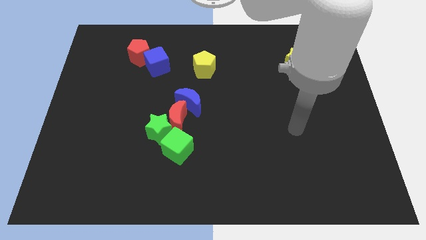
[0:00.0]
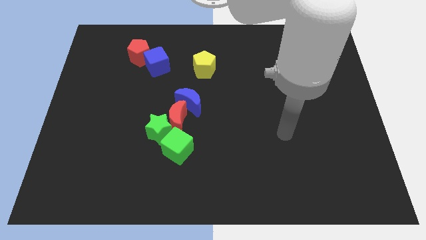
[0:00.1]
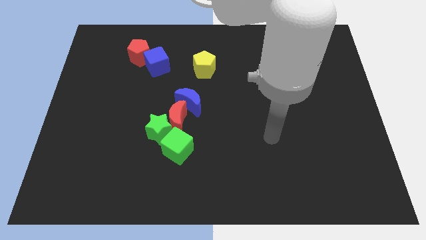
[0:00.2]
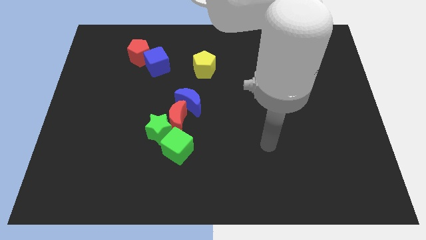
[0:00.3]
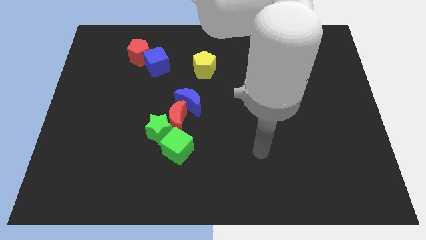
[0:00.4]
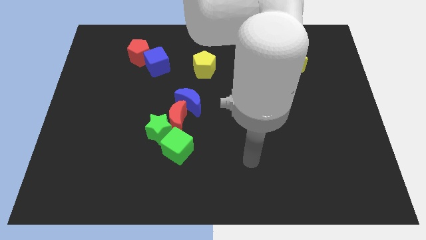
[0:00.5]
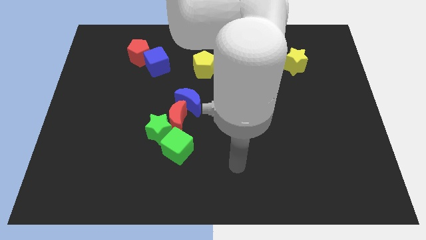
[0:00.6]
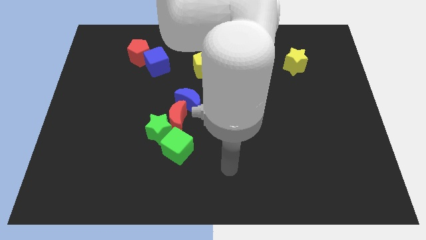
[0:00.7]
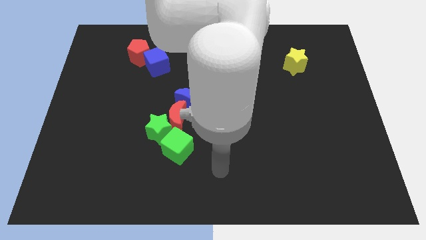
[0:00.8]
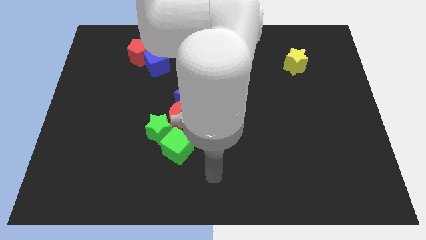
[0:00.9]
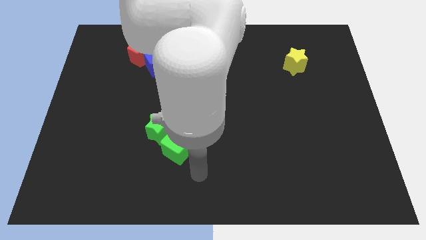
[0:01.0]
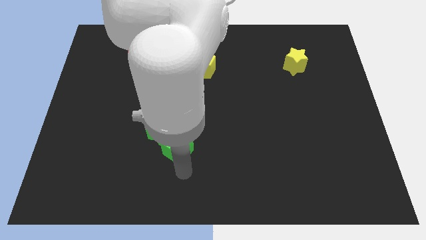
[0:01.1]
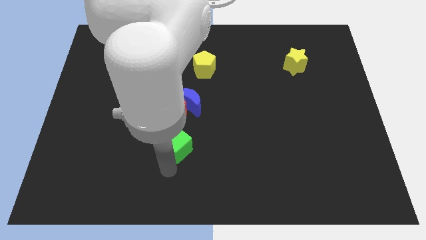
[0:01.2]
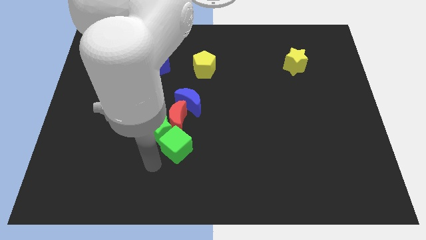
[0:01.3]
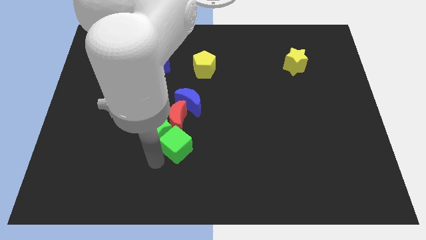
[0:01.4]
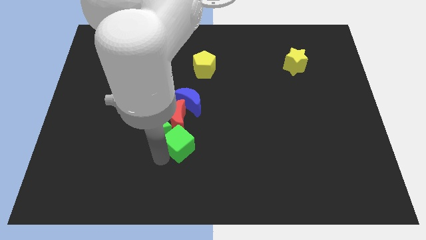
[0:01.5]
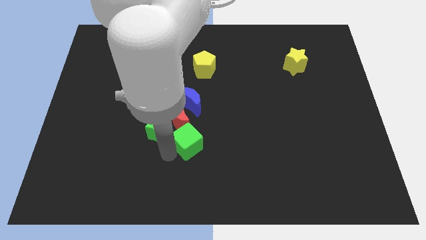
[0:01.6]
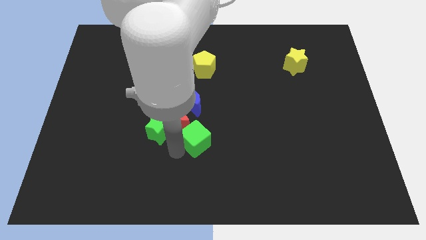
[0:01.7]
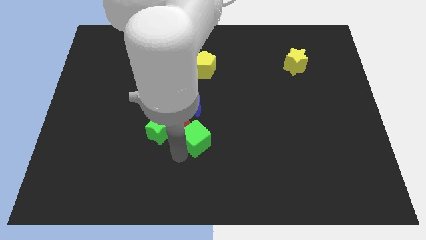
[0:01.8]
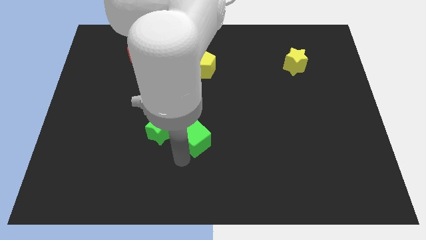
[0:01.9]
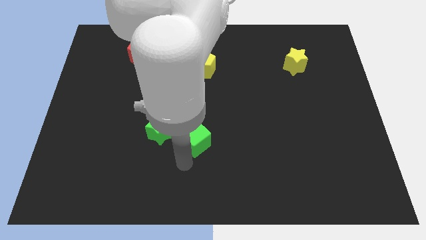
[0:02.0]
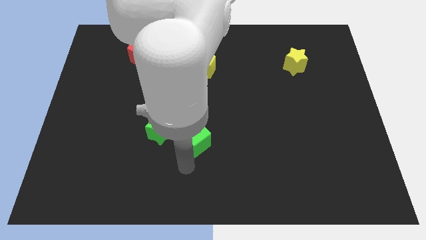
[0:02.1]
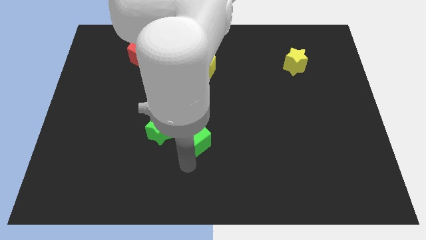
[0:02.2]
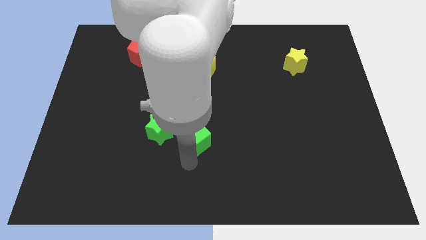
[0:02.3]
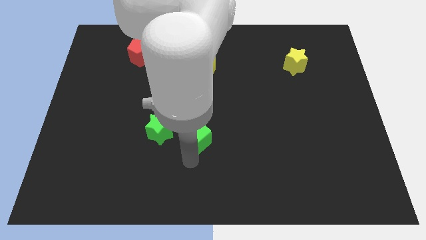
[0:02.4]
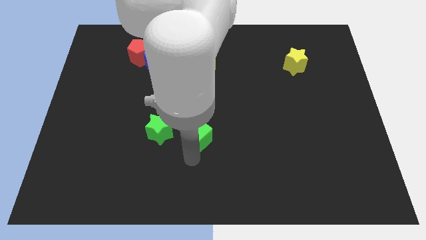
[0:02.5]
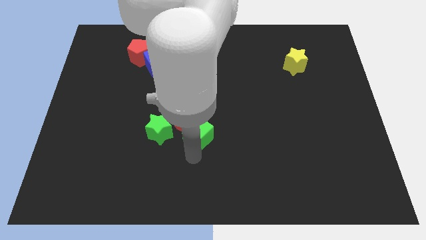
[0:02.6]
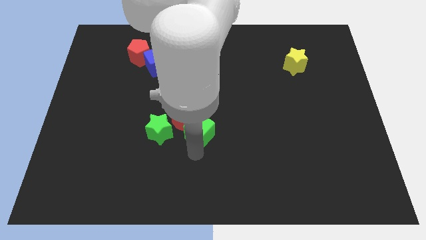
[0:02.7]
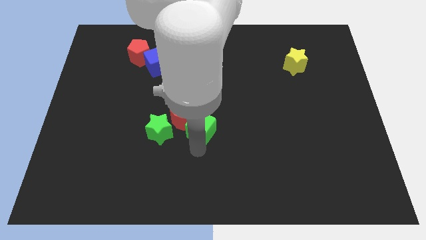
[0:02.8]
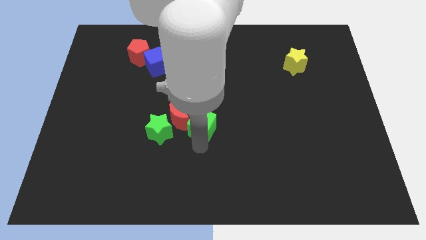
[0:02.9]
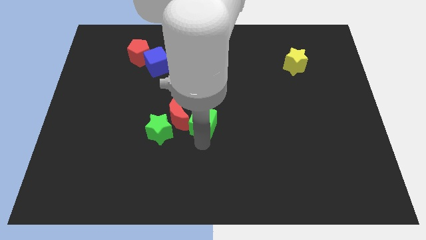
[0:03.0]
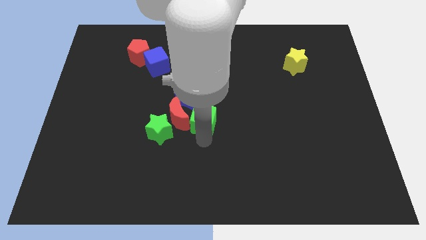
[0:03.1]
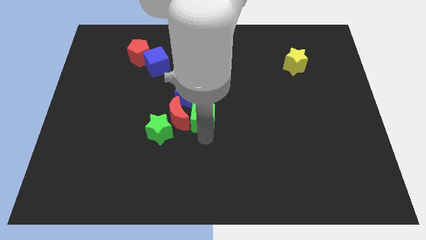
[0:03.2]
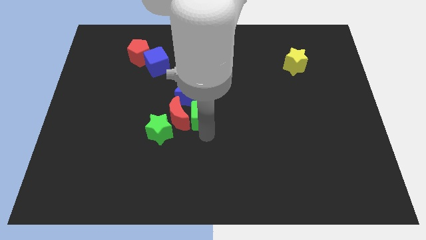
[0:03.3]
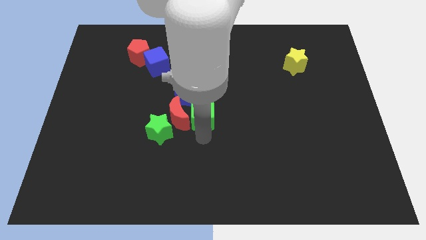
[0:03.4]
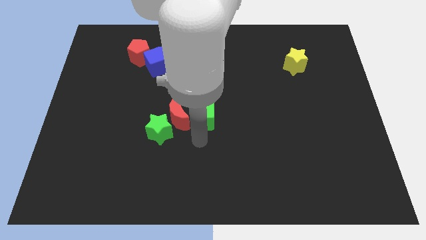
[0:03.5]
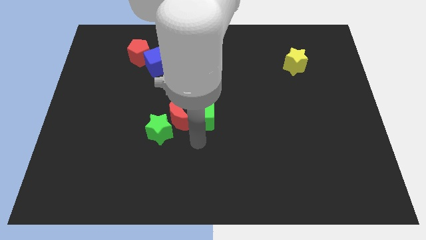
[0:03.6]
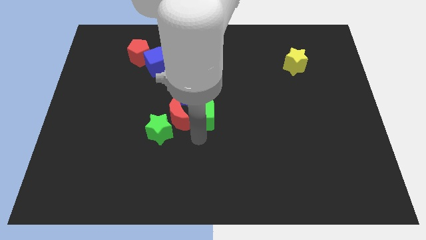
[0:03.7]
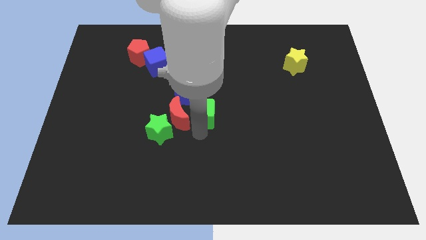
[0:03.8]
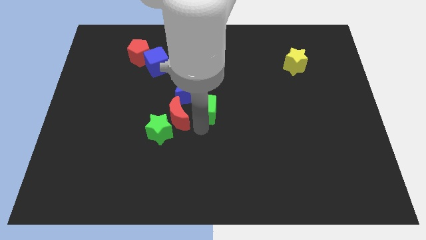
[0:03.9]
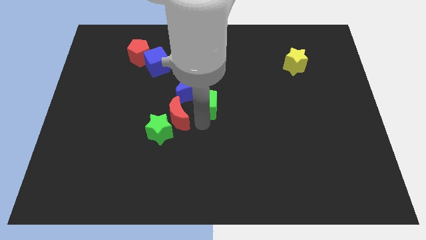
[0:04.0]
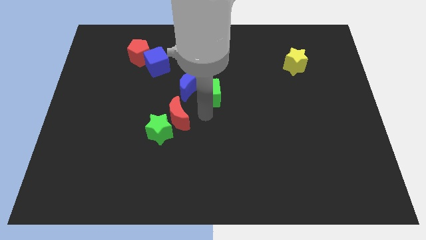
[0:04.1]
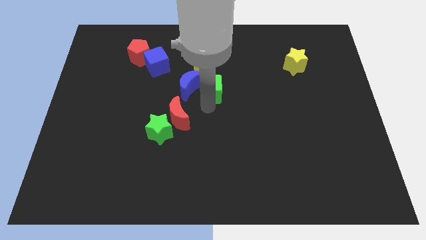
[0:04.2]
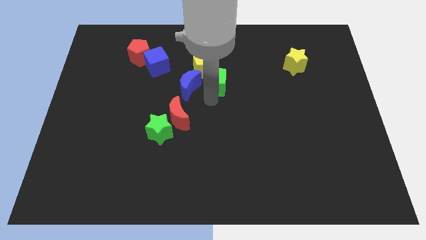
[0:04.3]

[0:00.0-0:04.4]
push the green cube close to the yellow pentagon

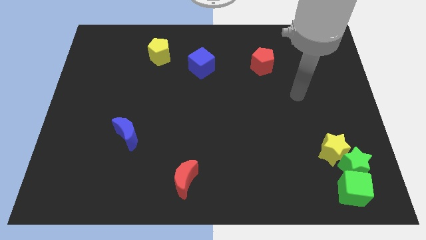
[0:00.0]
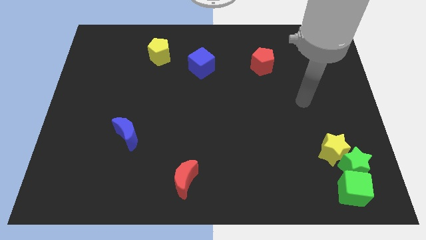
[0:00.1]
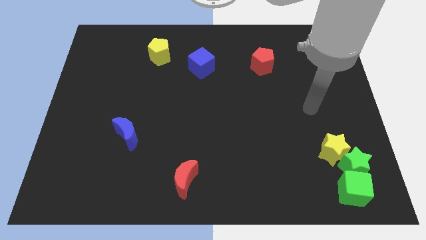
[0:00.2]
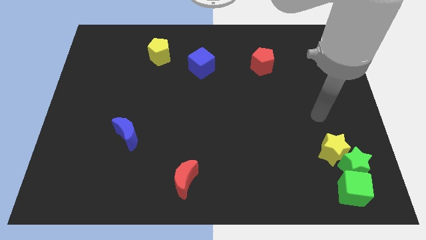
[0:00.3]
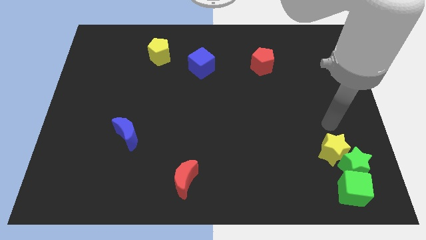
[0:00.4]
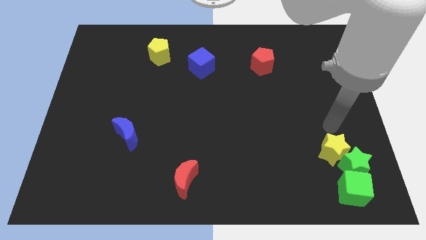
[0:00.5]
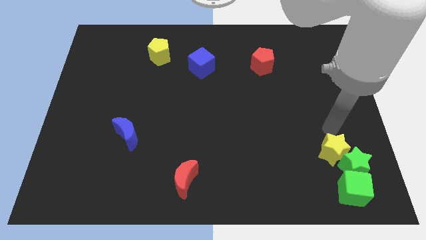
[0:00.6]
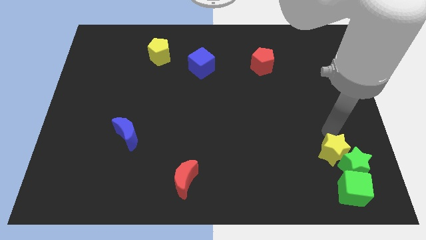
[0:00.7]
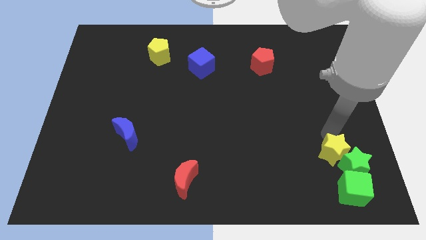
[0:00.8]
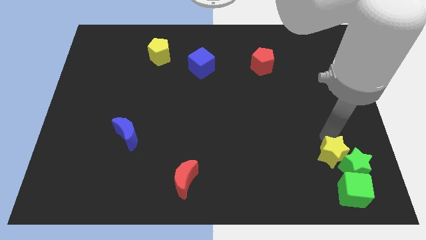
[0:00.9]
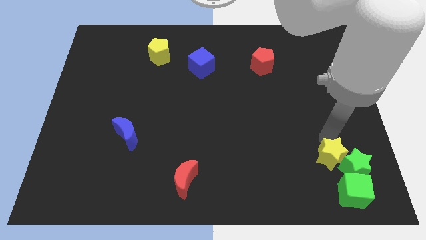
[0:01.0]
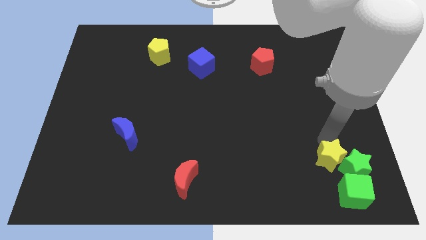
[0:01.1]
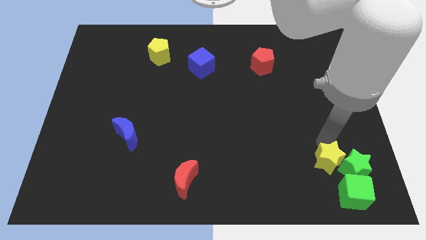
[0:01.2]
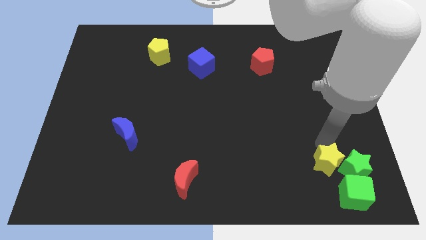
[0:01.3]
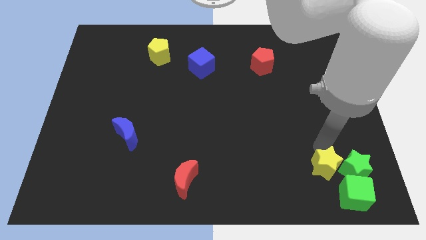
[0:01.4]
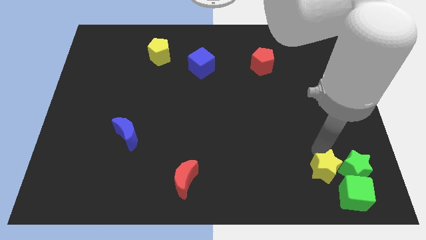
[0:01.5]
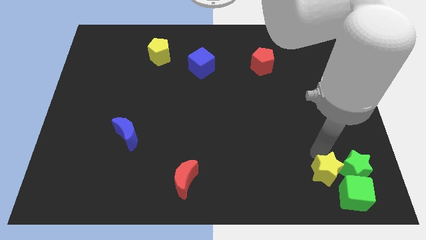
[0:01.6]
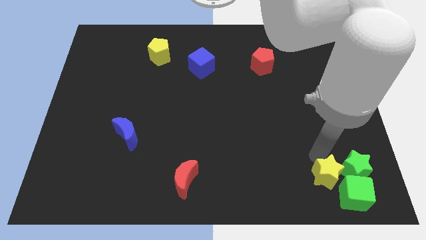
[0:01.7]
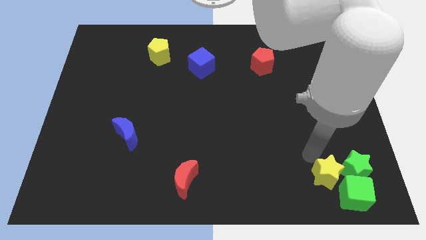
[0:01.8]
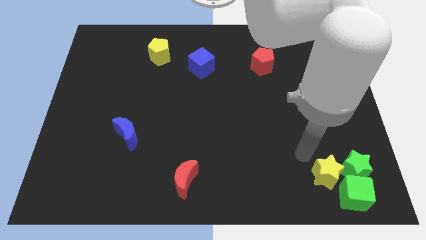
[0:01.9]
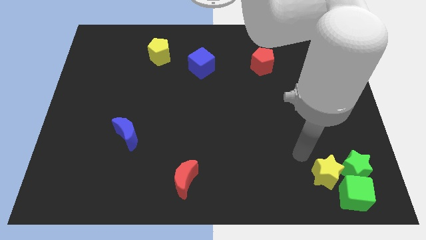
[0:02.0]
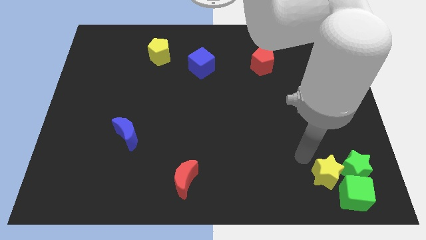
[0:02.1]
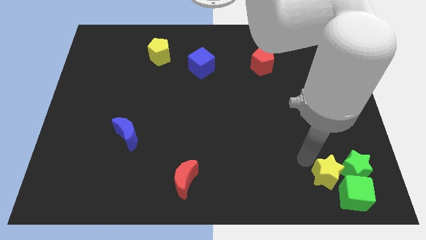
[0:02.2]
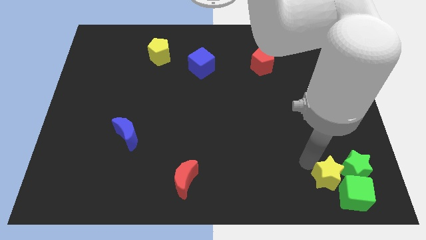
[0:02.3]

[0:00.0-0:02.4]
put the yellow star towards the green cube

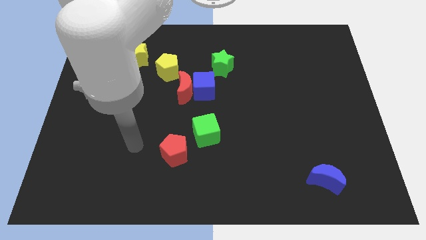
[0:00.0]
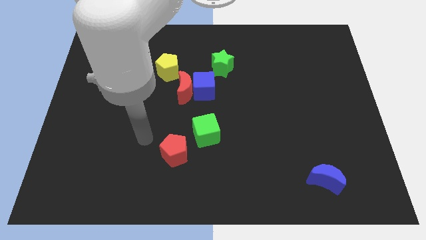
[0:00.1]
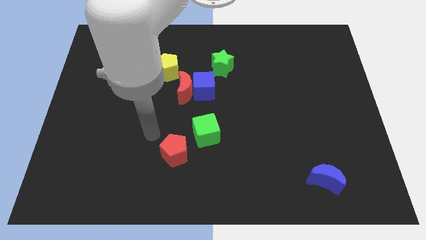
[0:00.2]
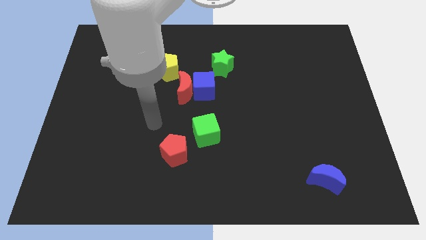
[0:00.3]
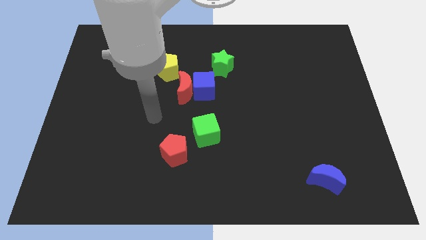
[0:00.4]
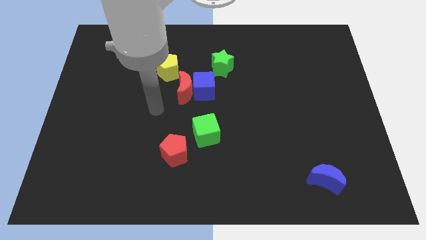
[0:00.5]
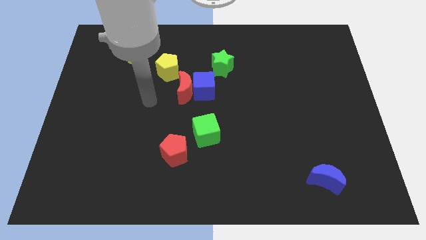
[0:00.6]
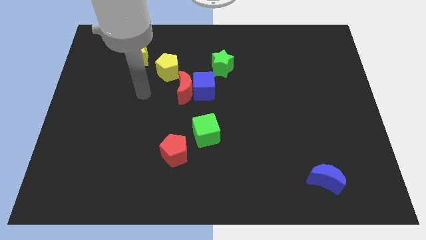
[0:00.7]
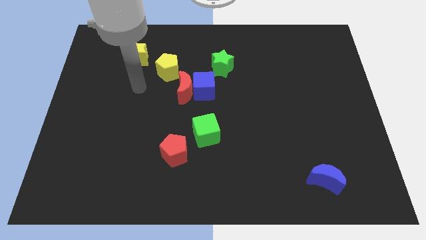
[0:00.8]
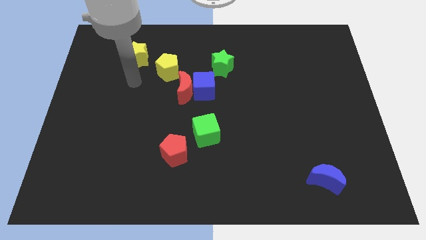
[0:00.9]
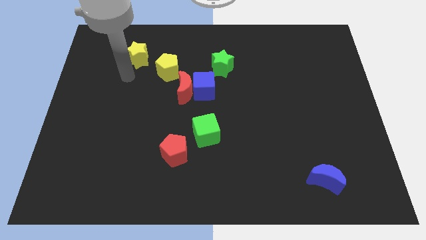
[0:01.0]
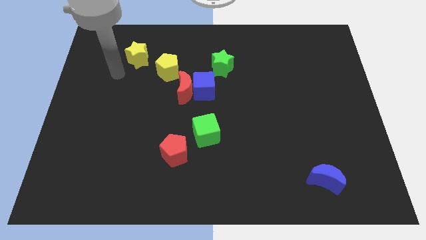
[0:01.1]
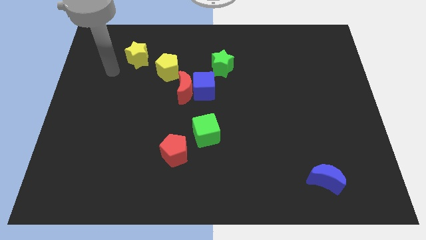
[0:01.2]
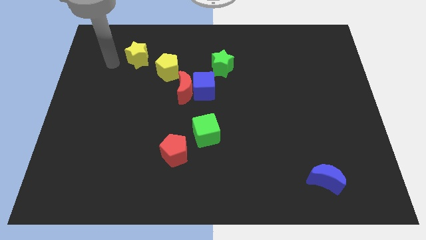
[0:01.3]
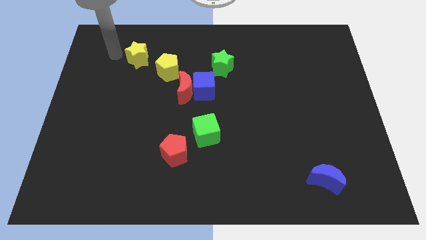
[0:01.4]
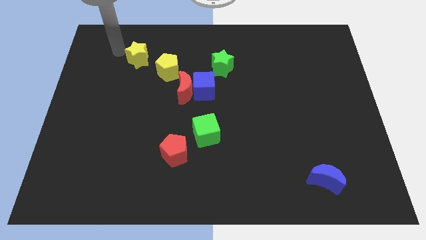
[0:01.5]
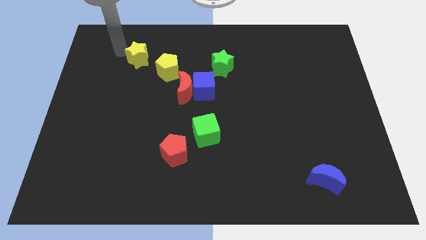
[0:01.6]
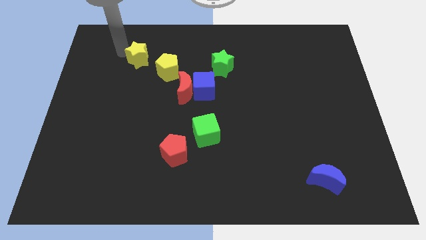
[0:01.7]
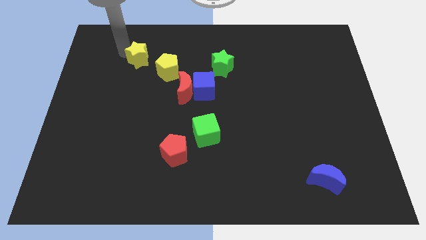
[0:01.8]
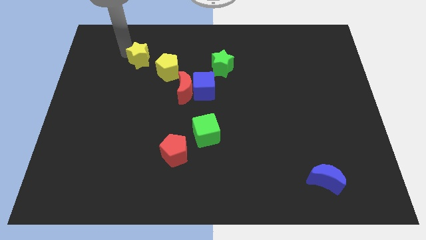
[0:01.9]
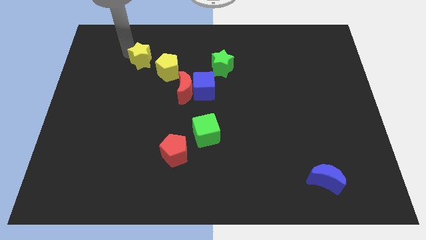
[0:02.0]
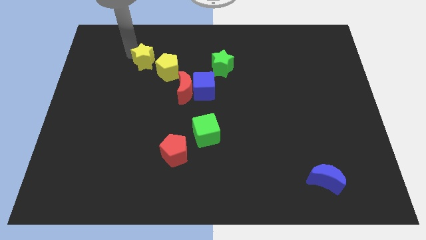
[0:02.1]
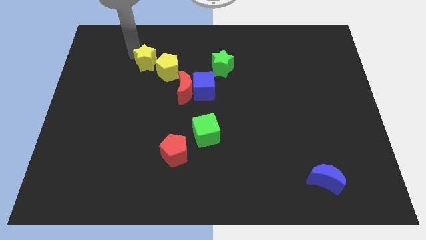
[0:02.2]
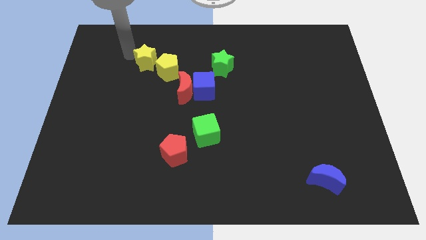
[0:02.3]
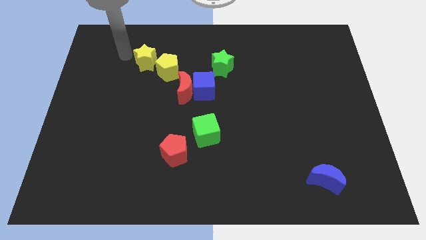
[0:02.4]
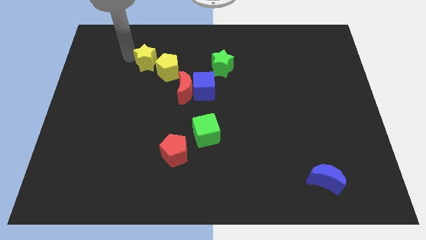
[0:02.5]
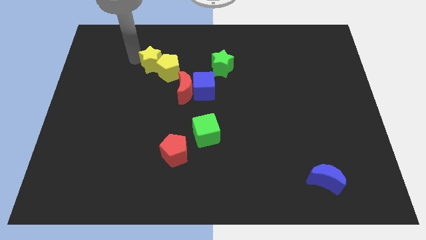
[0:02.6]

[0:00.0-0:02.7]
slide the yellow star close to the yellow pentagon
